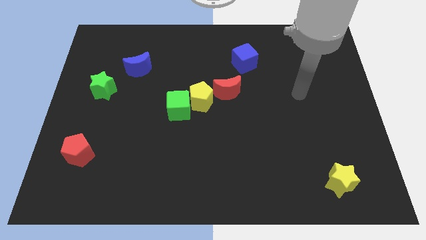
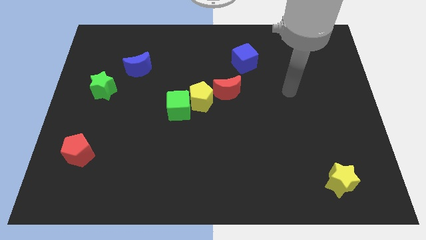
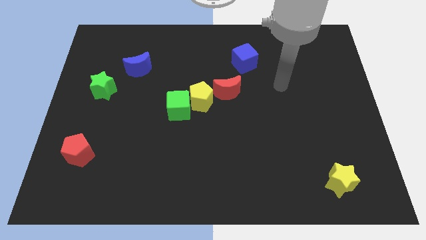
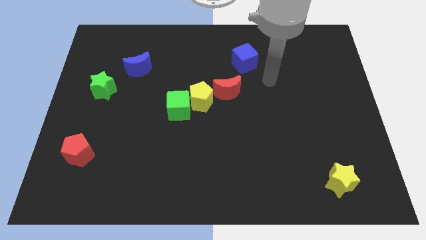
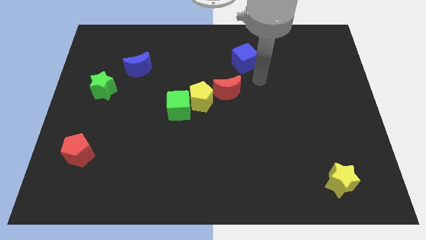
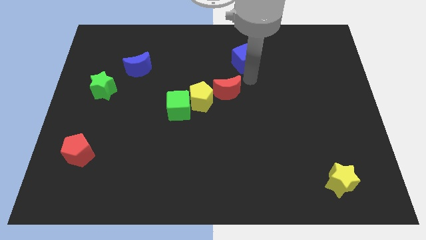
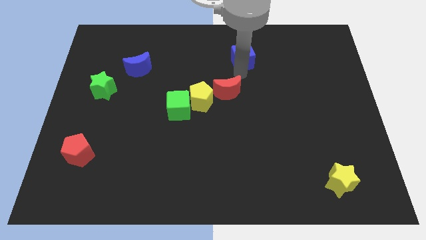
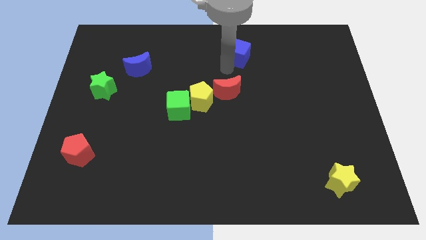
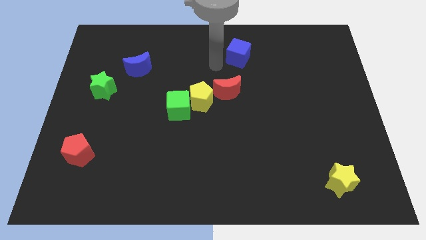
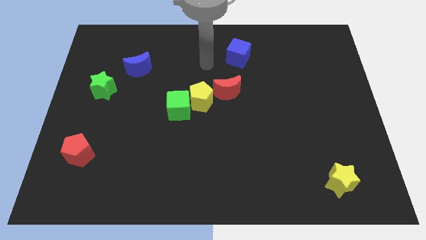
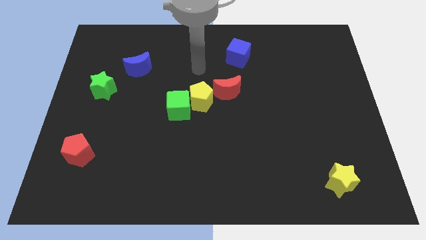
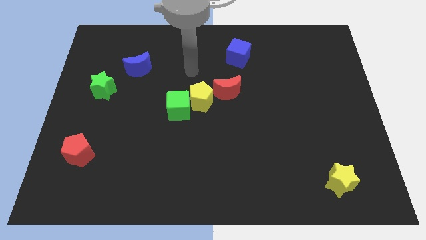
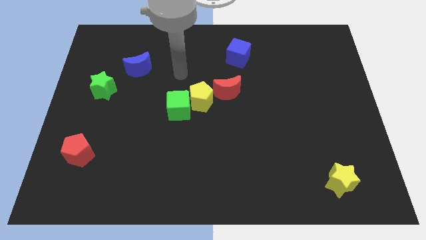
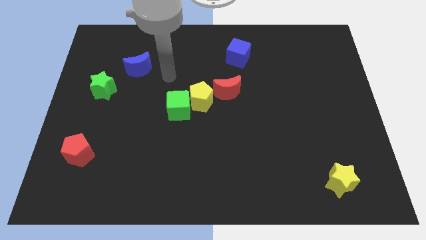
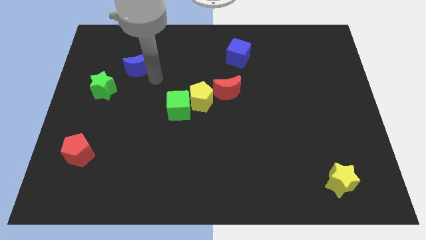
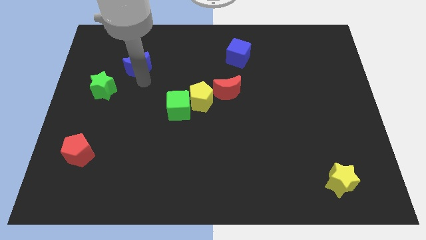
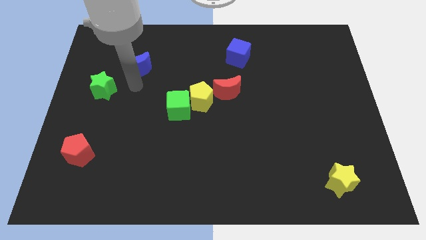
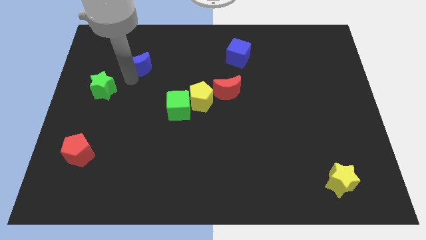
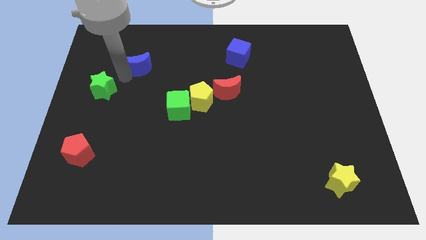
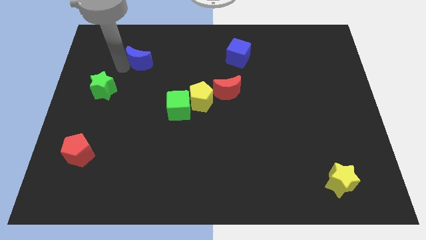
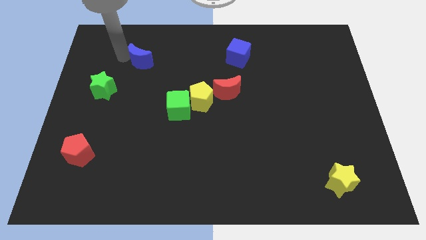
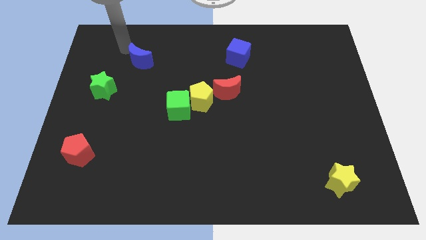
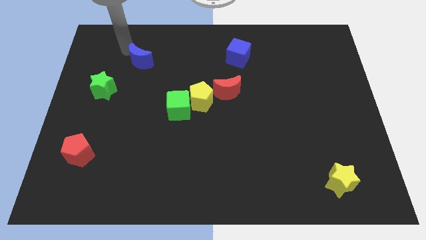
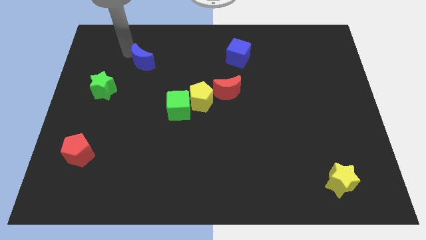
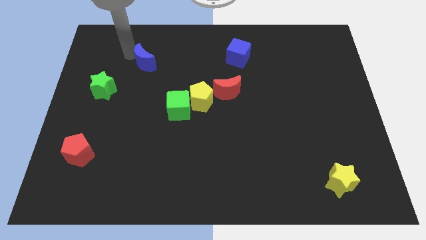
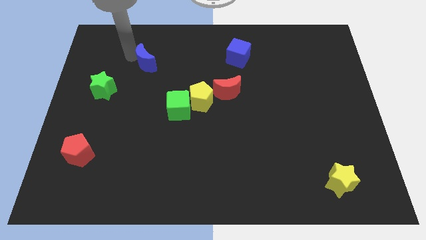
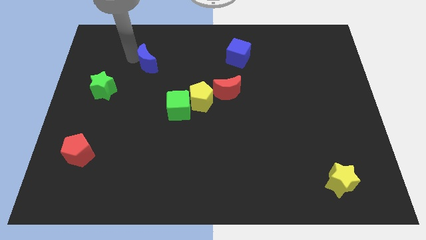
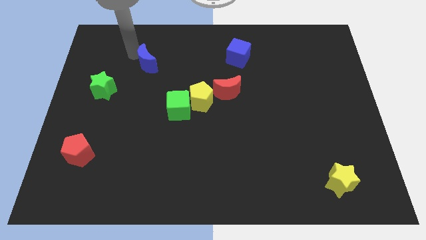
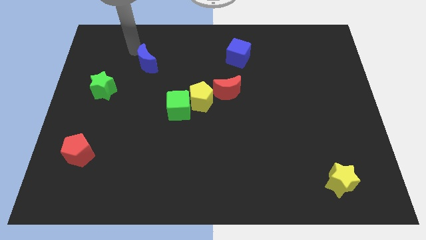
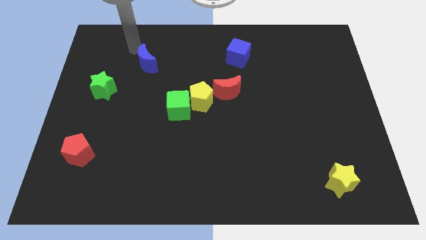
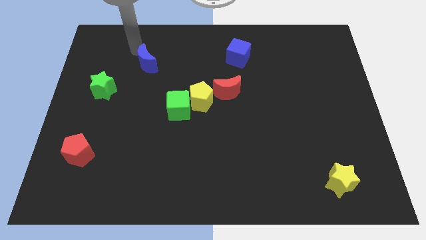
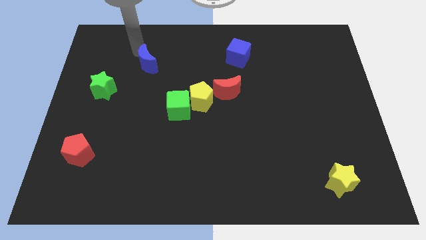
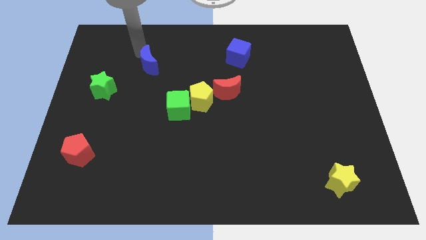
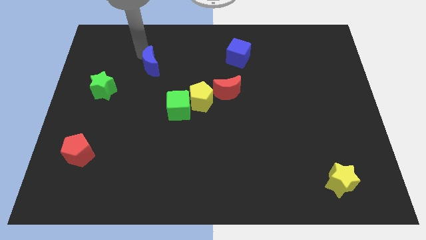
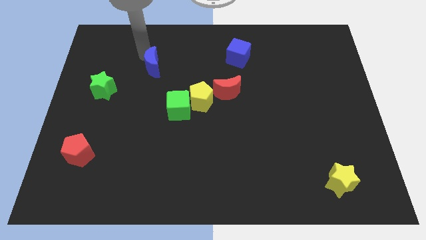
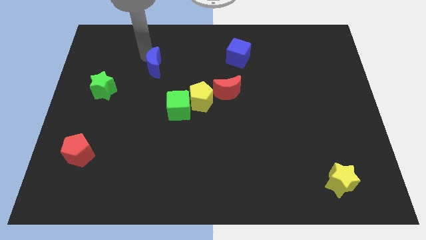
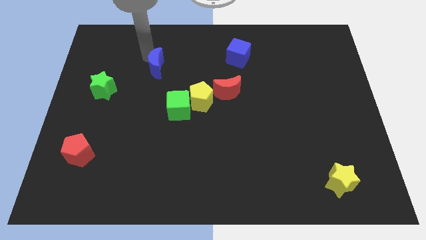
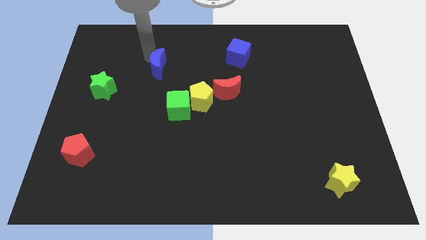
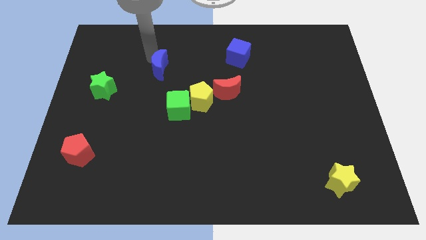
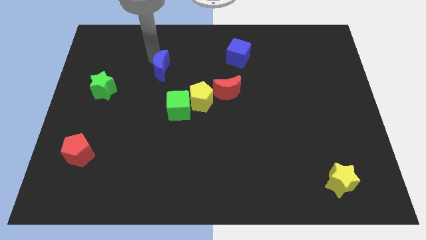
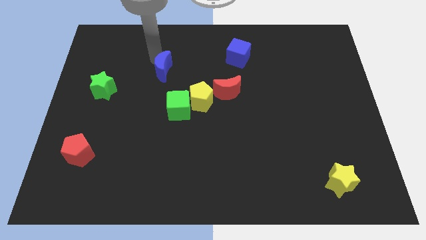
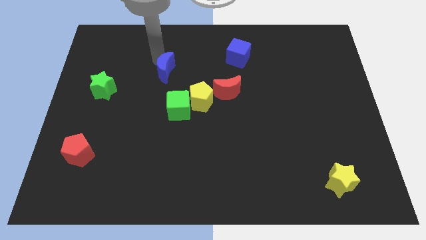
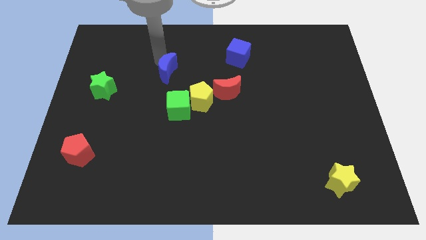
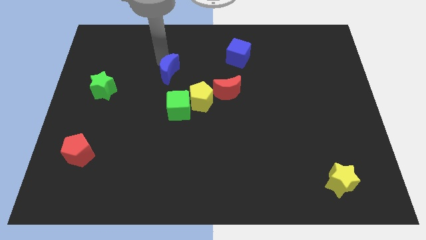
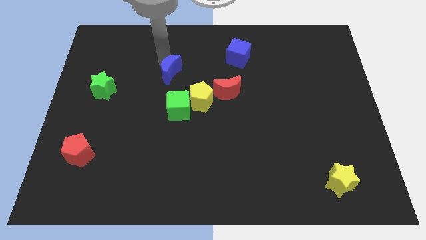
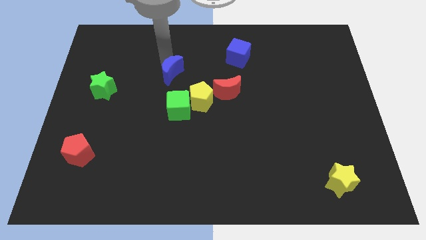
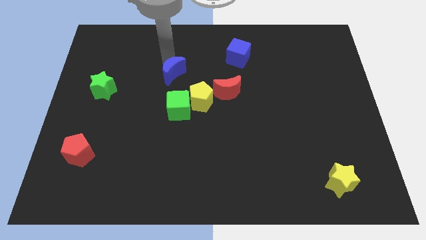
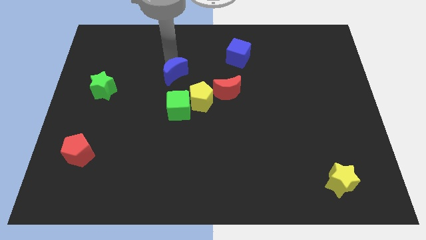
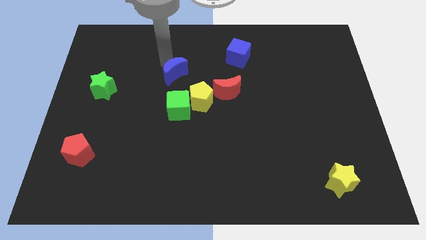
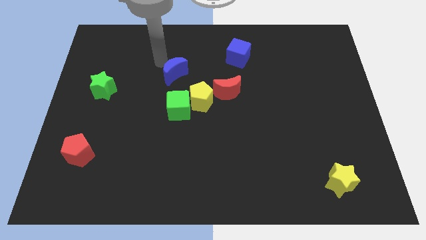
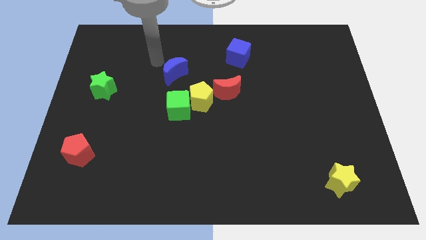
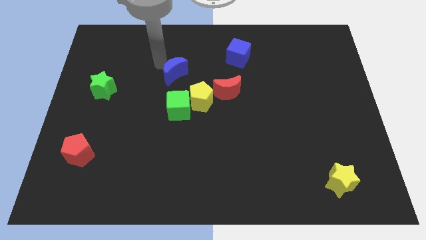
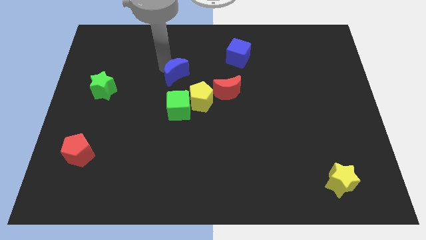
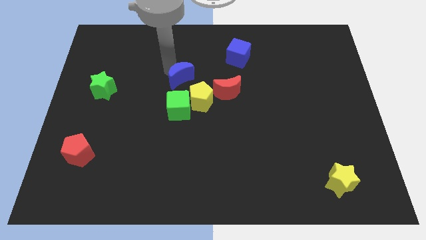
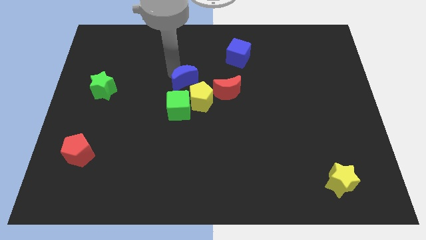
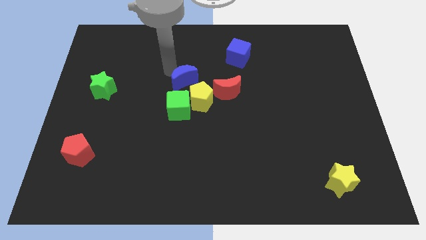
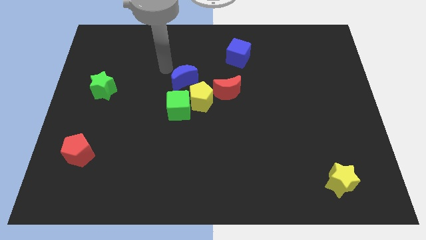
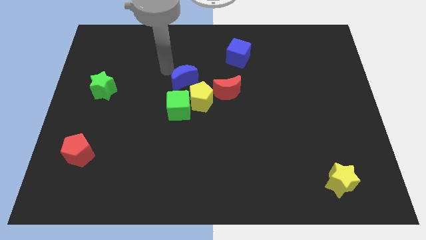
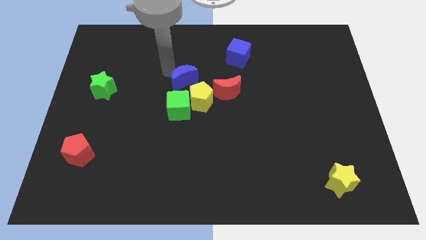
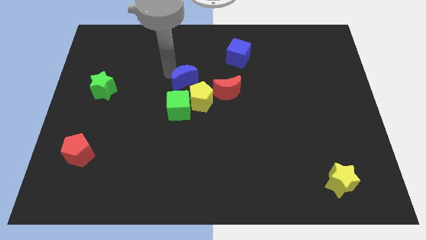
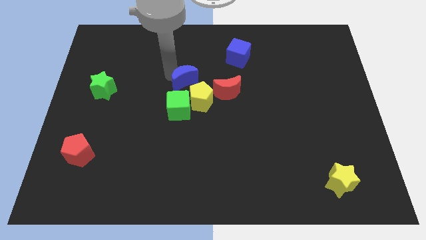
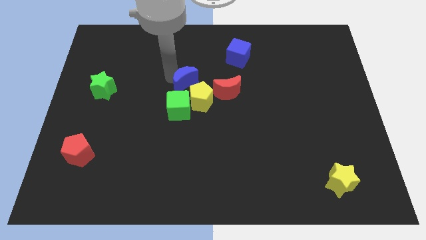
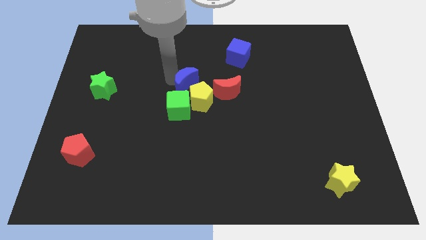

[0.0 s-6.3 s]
put the blue moon diagonally up and to the right of the green cube

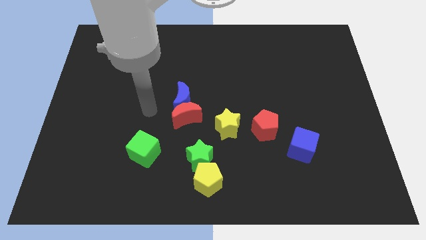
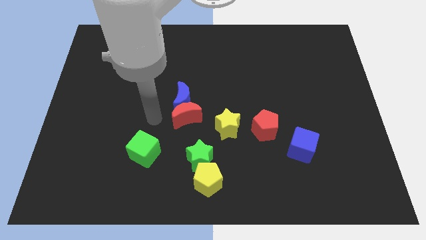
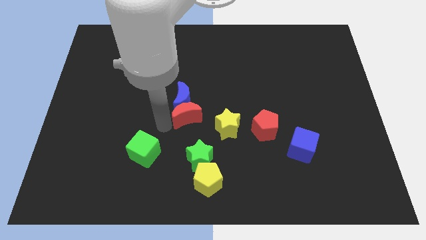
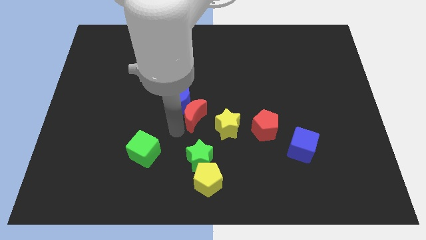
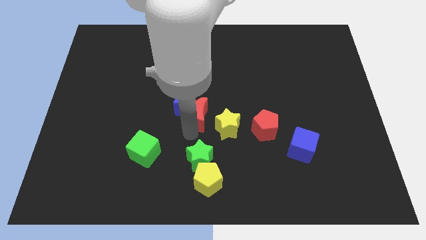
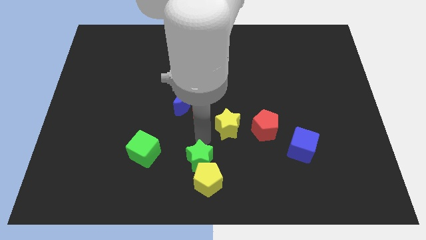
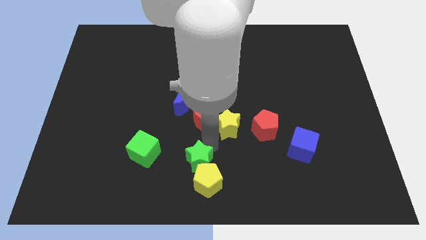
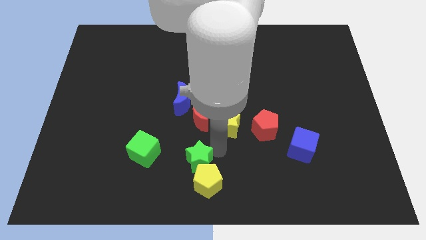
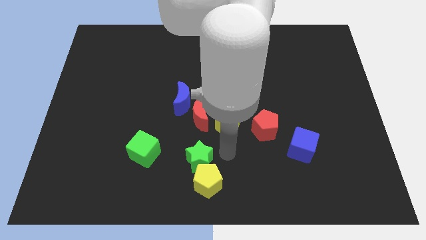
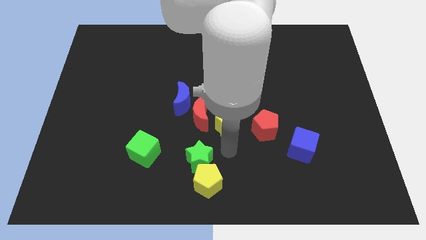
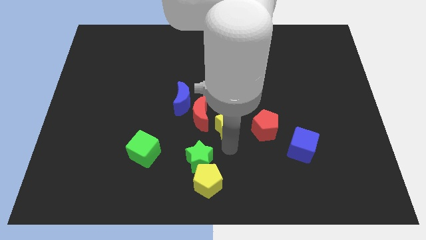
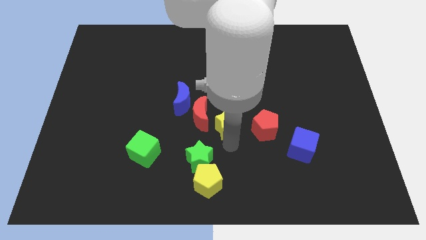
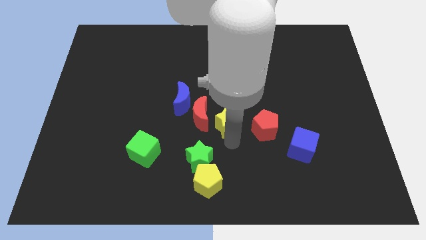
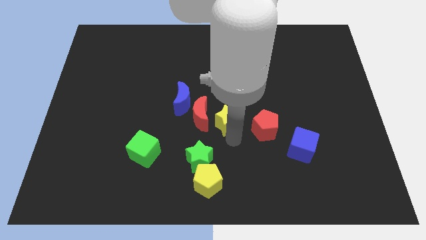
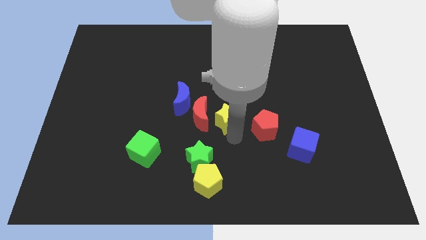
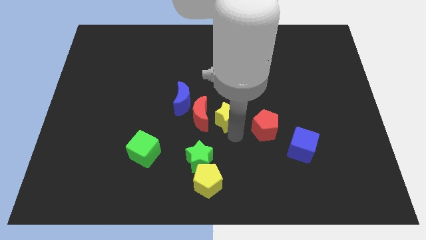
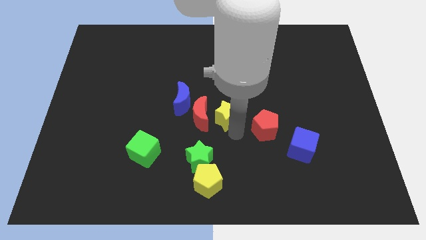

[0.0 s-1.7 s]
push the yellow star to the top right side of the red moon
